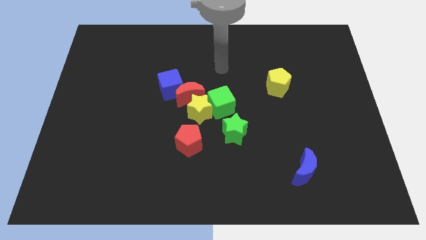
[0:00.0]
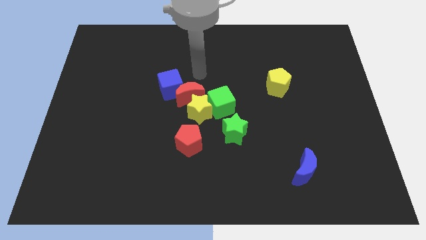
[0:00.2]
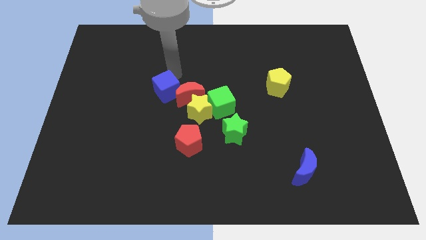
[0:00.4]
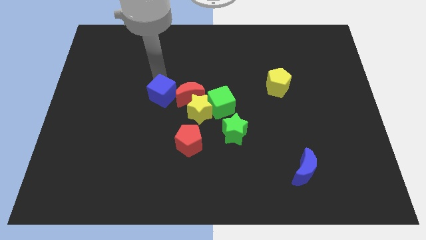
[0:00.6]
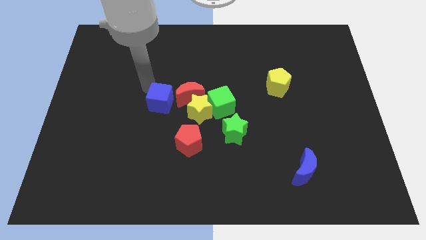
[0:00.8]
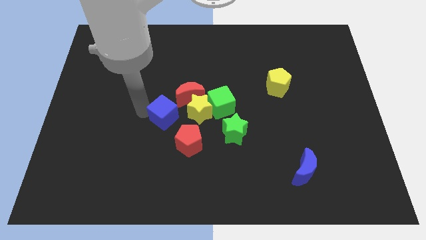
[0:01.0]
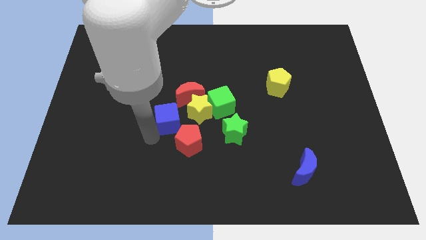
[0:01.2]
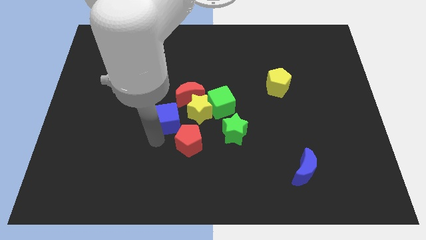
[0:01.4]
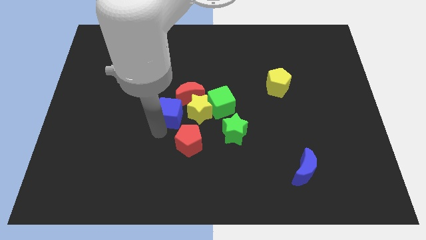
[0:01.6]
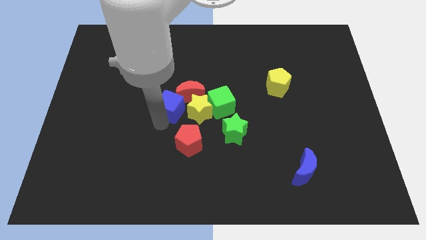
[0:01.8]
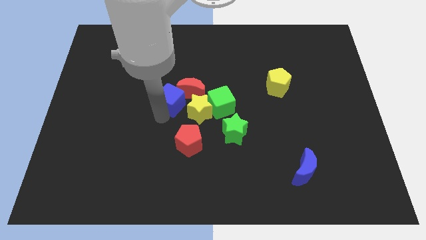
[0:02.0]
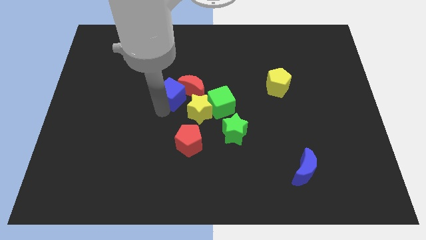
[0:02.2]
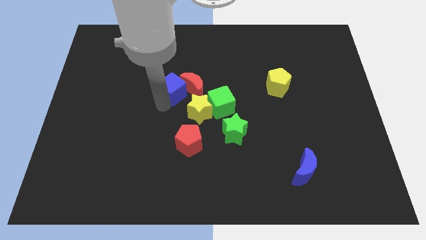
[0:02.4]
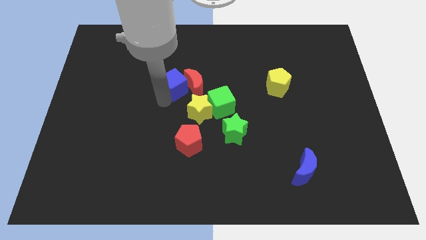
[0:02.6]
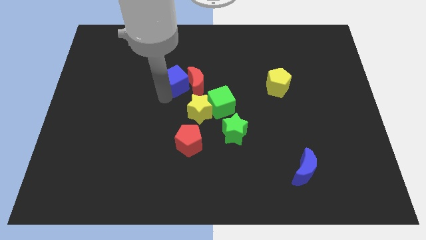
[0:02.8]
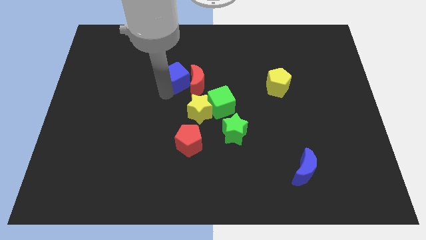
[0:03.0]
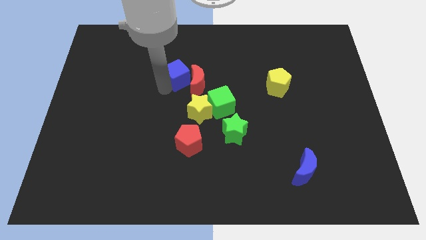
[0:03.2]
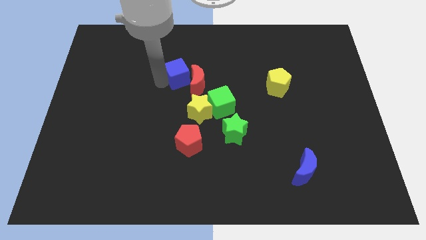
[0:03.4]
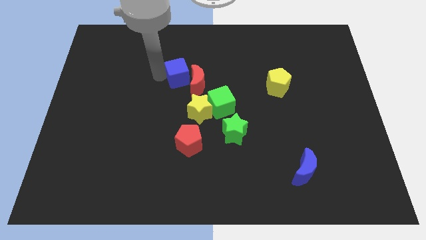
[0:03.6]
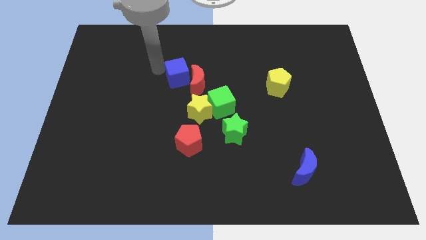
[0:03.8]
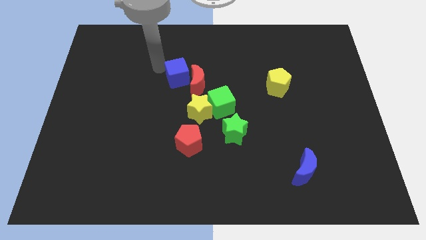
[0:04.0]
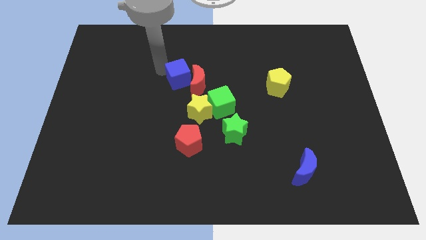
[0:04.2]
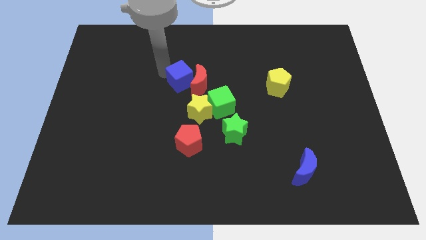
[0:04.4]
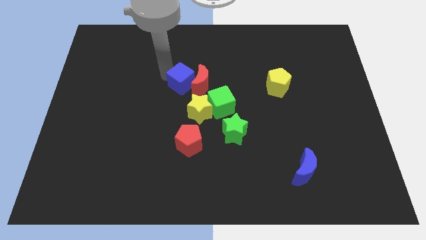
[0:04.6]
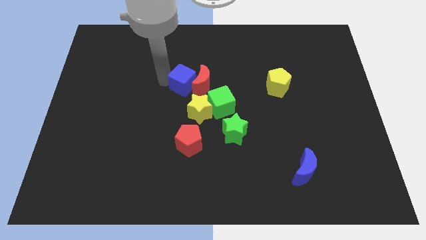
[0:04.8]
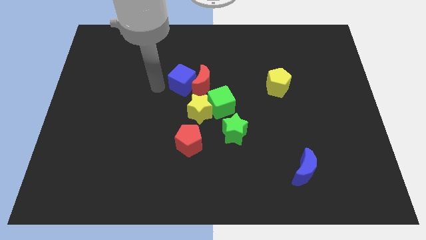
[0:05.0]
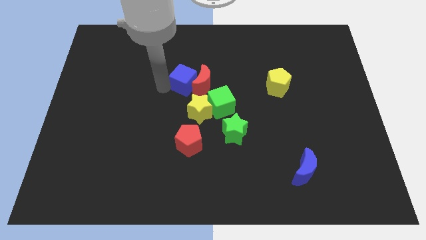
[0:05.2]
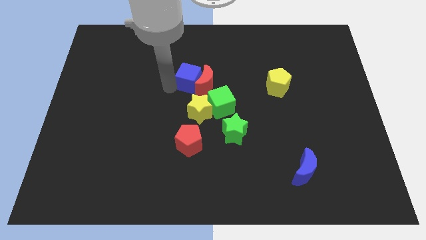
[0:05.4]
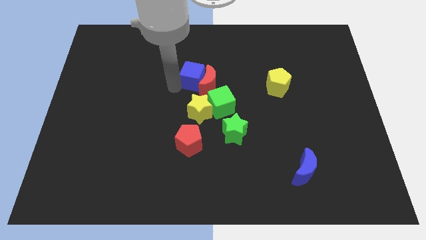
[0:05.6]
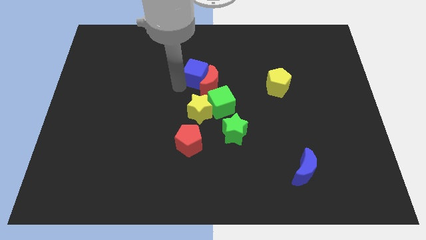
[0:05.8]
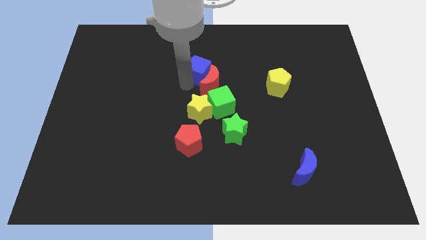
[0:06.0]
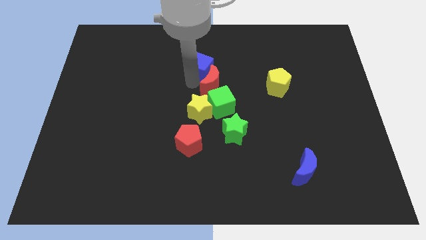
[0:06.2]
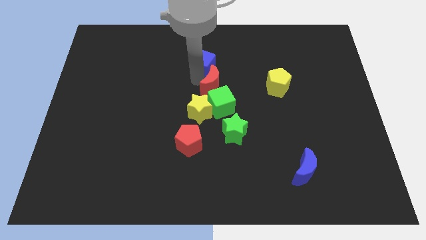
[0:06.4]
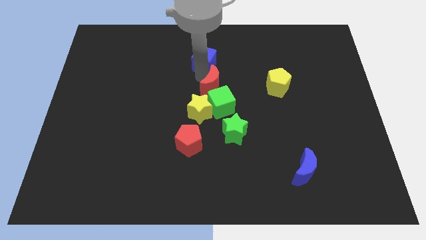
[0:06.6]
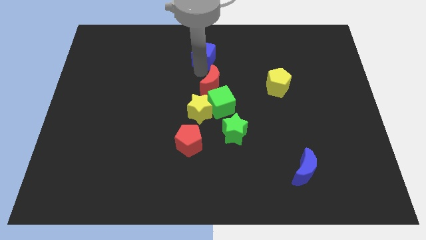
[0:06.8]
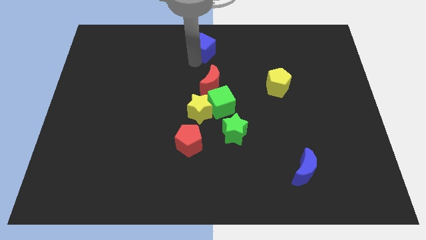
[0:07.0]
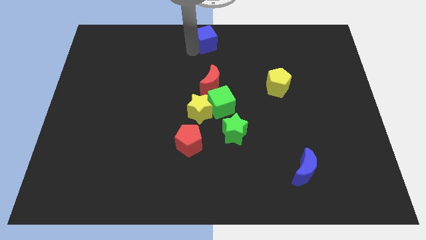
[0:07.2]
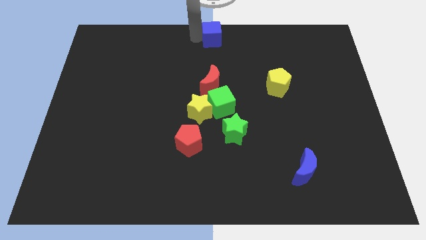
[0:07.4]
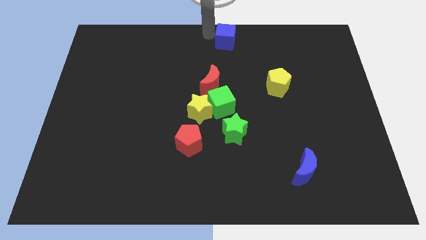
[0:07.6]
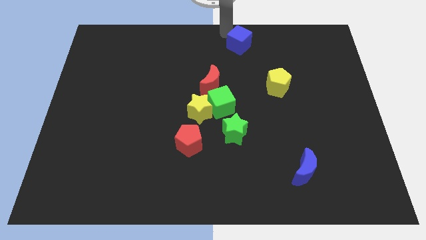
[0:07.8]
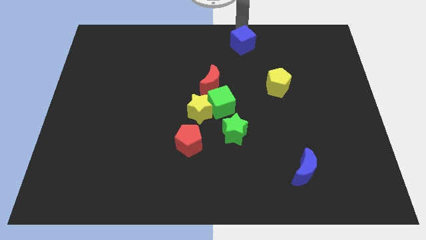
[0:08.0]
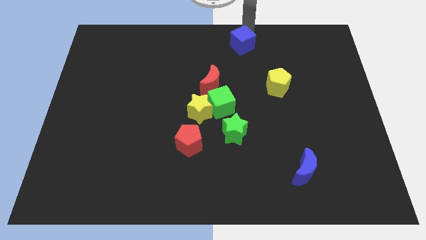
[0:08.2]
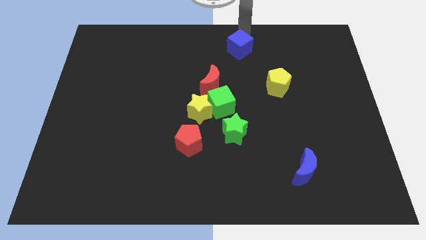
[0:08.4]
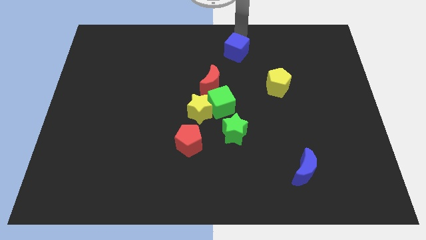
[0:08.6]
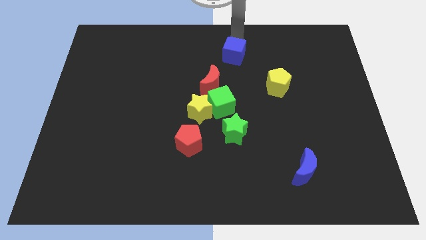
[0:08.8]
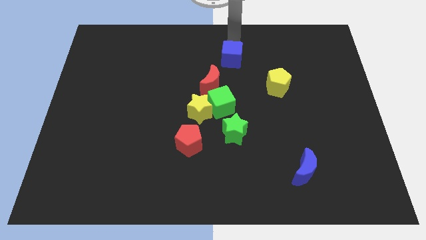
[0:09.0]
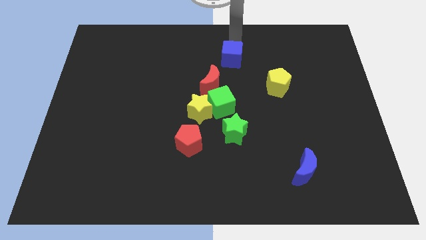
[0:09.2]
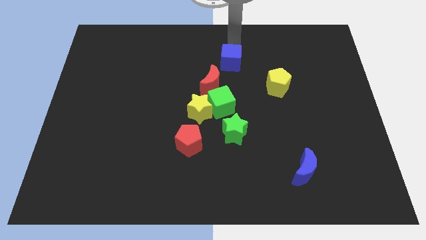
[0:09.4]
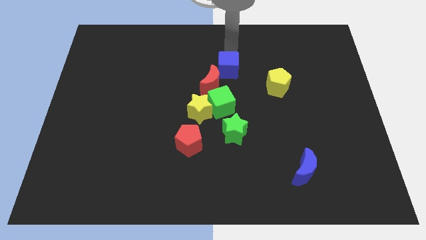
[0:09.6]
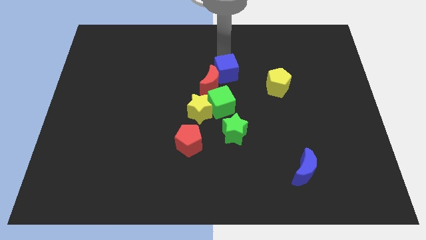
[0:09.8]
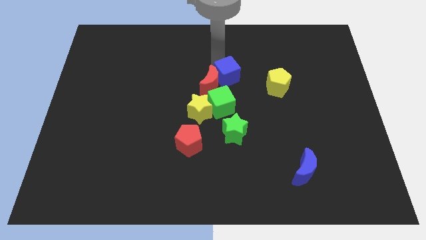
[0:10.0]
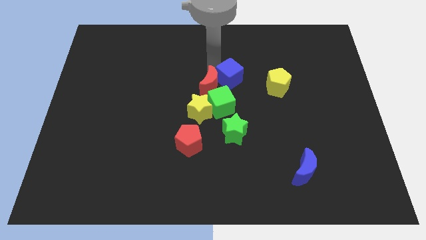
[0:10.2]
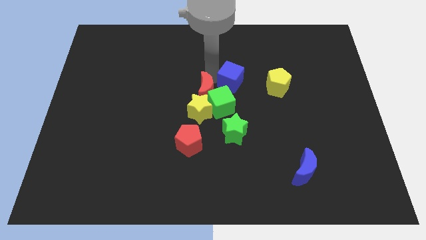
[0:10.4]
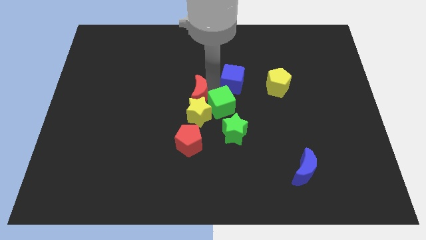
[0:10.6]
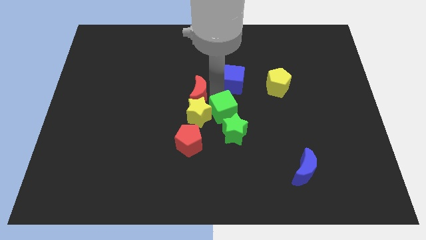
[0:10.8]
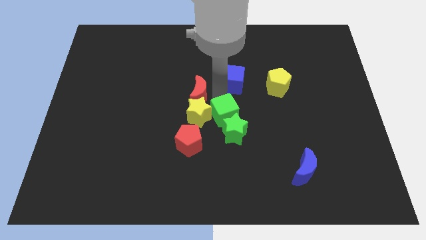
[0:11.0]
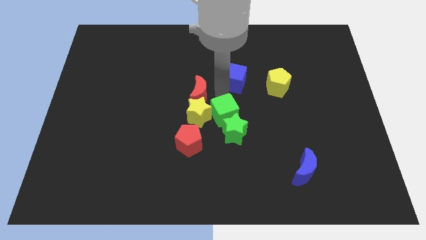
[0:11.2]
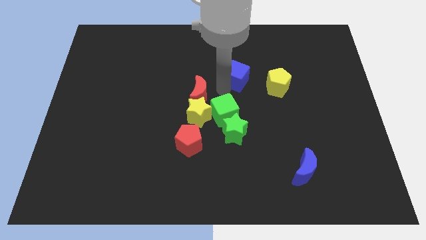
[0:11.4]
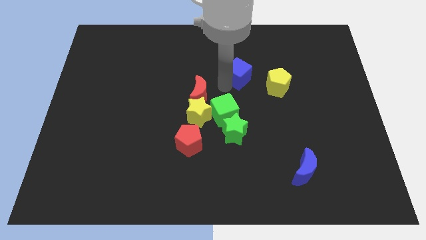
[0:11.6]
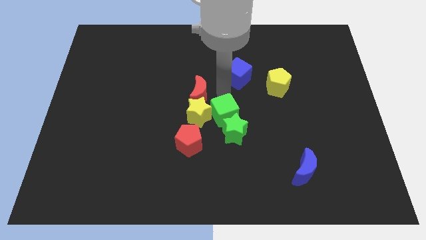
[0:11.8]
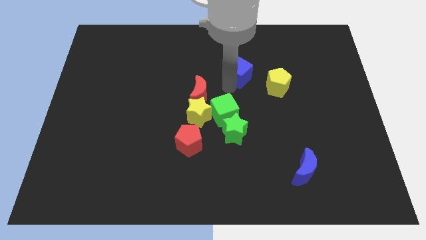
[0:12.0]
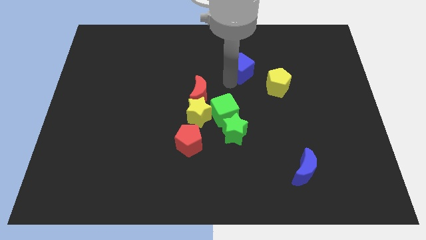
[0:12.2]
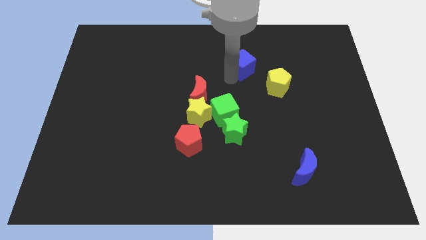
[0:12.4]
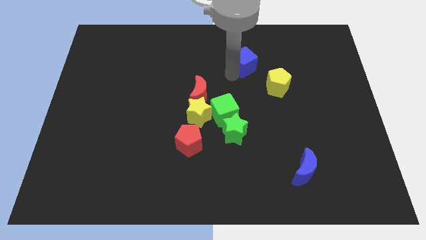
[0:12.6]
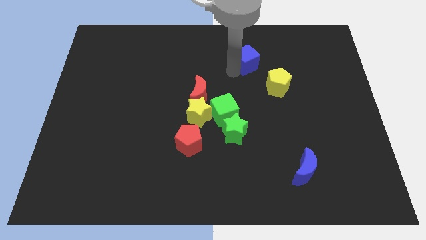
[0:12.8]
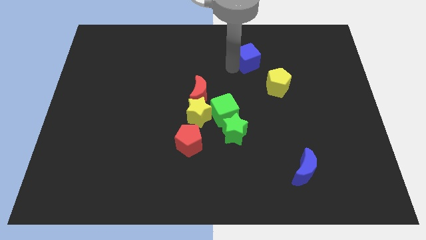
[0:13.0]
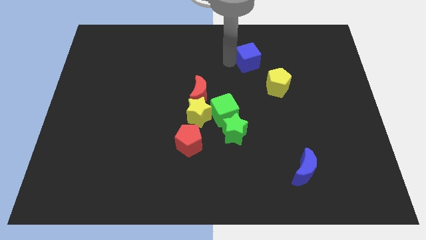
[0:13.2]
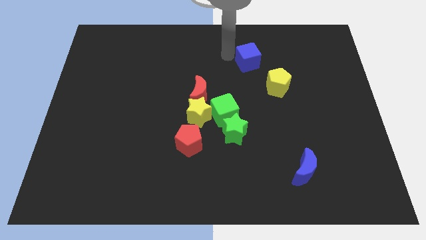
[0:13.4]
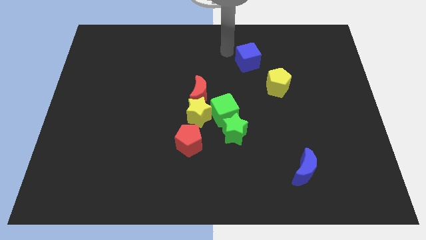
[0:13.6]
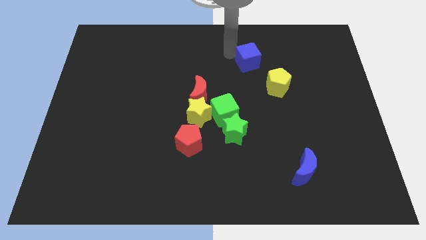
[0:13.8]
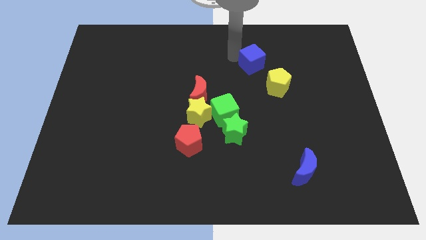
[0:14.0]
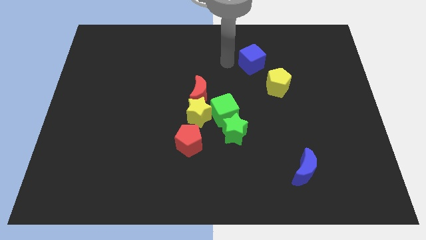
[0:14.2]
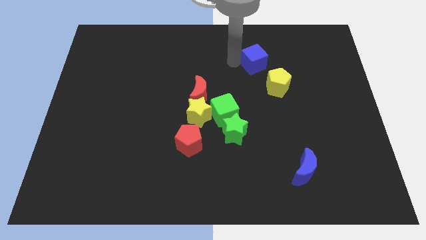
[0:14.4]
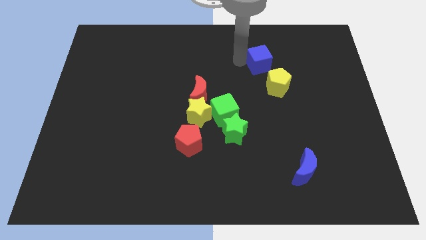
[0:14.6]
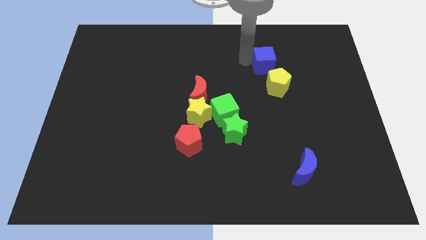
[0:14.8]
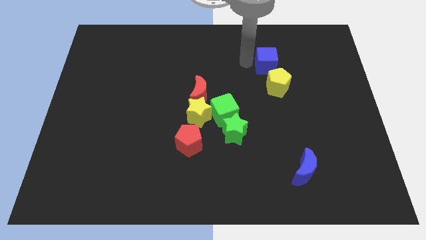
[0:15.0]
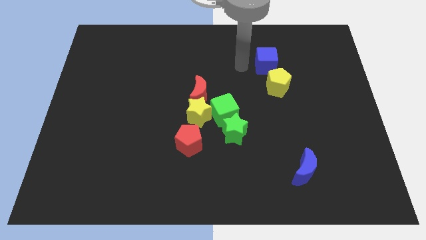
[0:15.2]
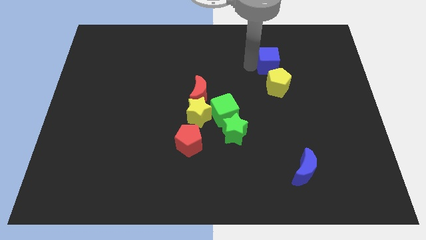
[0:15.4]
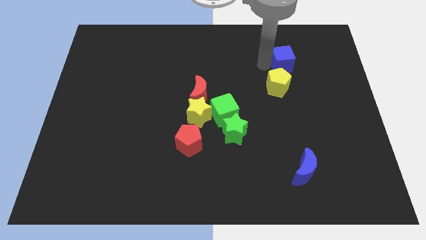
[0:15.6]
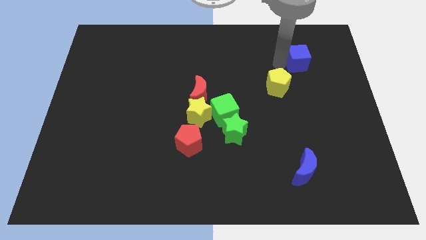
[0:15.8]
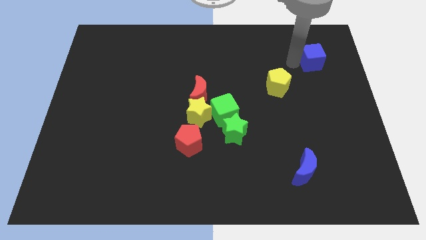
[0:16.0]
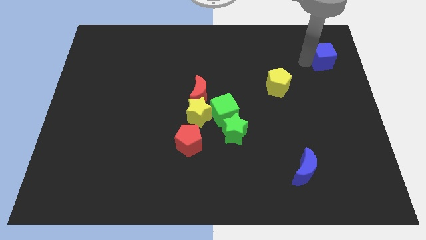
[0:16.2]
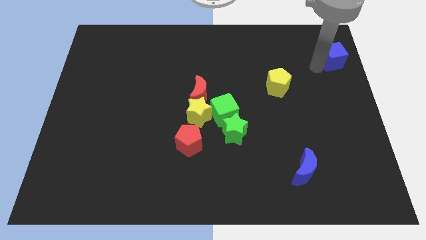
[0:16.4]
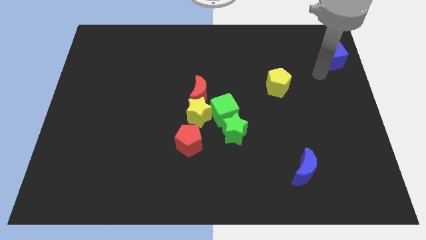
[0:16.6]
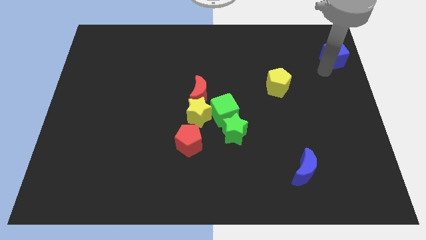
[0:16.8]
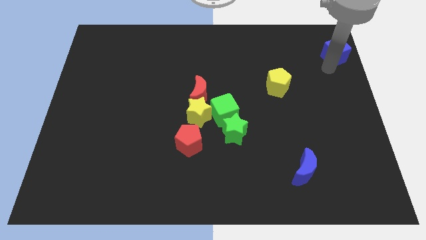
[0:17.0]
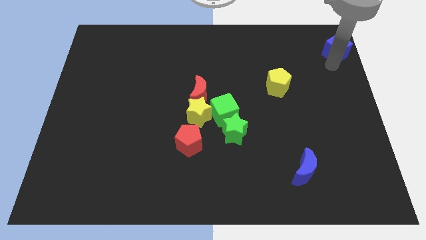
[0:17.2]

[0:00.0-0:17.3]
put the blue cube to the upper right corner
